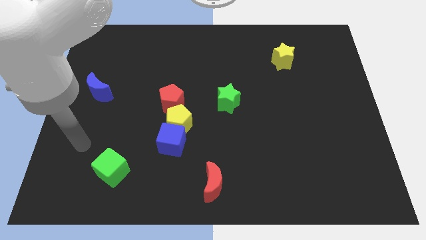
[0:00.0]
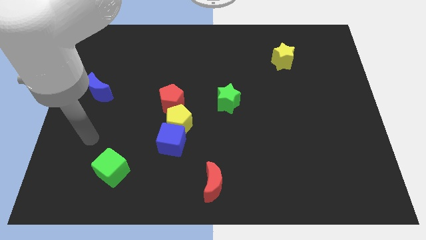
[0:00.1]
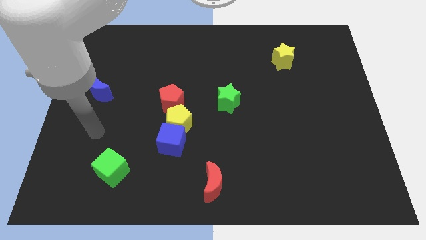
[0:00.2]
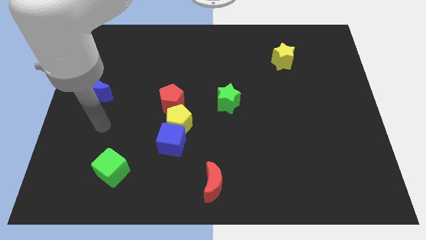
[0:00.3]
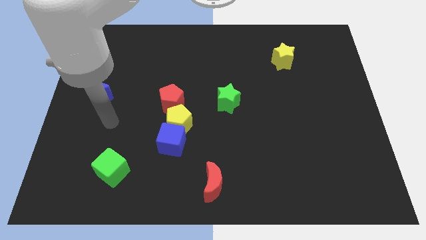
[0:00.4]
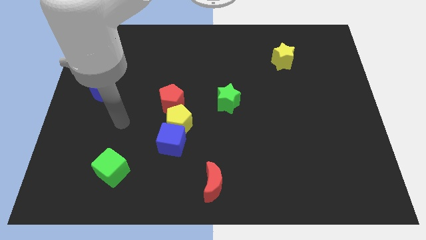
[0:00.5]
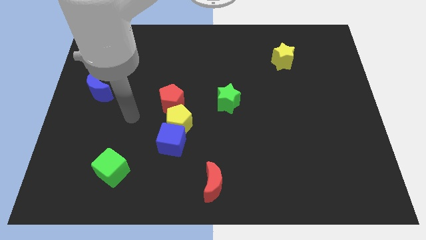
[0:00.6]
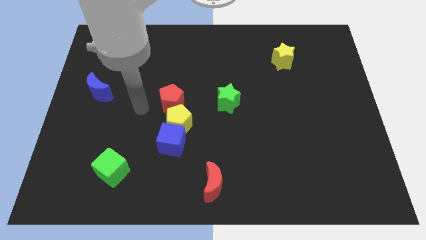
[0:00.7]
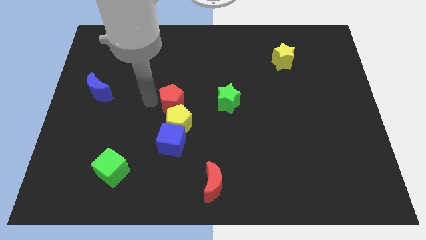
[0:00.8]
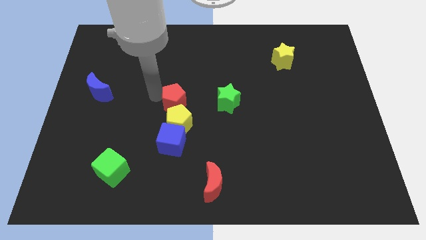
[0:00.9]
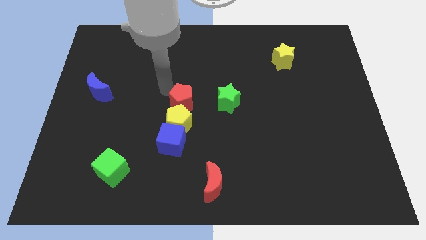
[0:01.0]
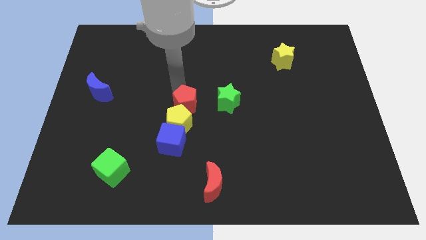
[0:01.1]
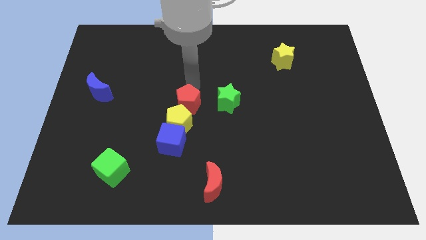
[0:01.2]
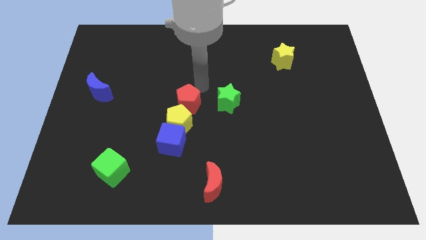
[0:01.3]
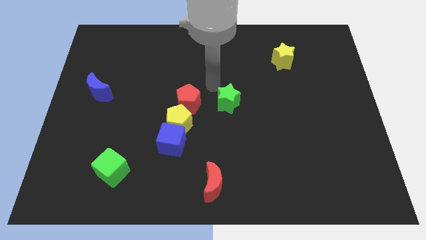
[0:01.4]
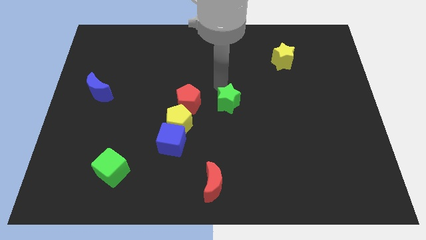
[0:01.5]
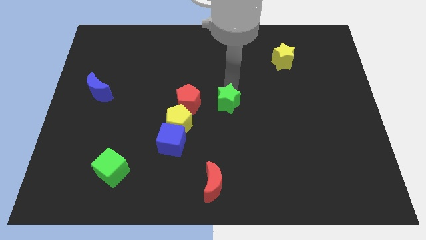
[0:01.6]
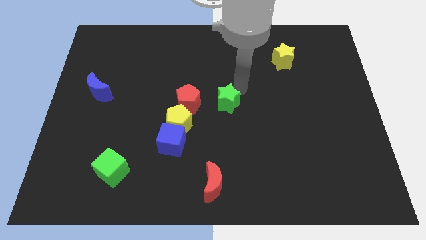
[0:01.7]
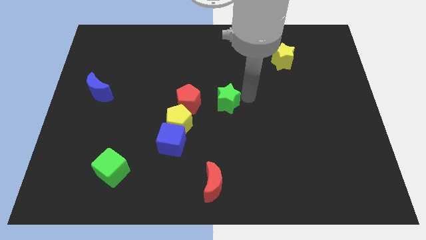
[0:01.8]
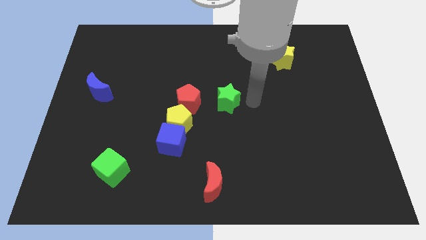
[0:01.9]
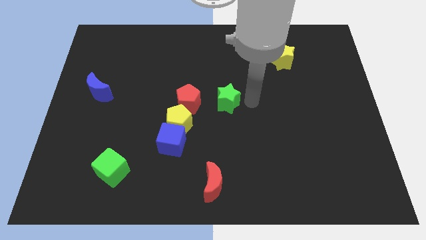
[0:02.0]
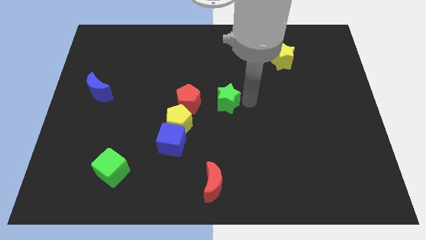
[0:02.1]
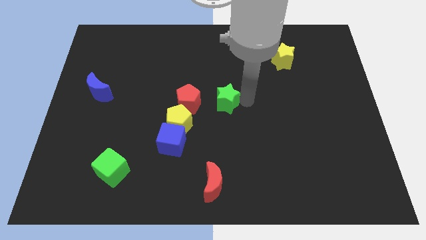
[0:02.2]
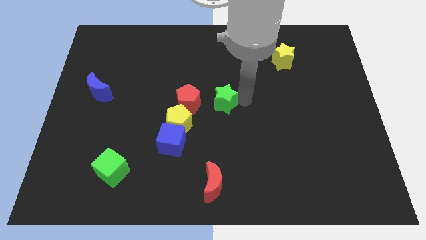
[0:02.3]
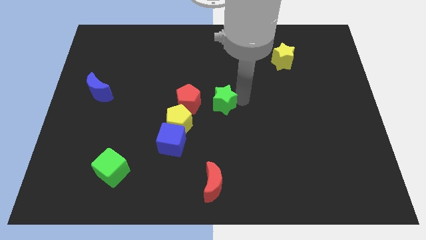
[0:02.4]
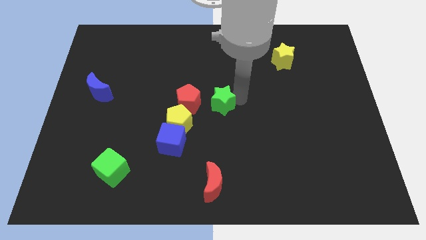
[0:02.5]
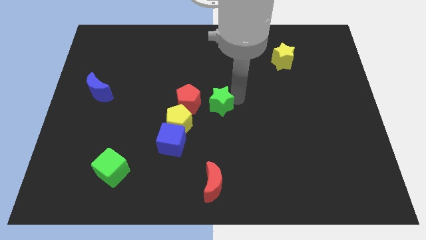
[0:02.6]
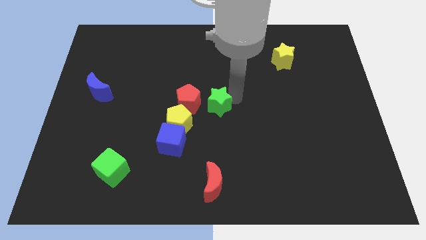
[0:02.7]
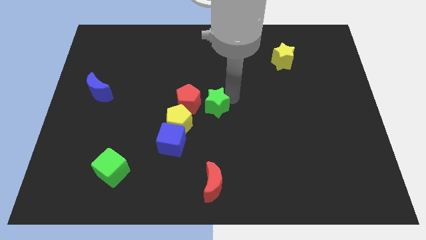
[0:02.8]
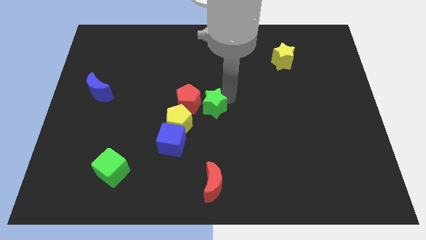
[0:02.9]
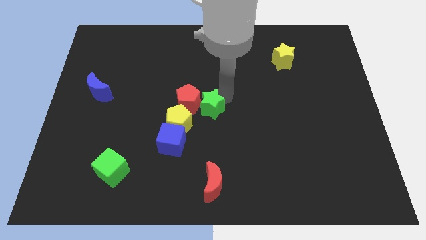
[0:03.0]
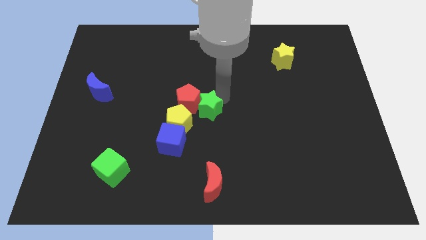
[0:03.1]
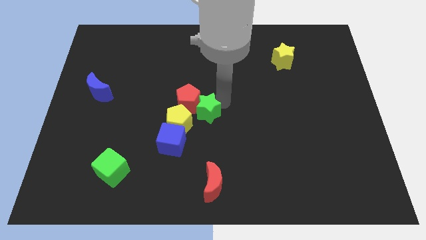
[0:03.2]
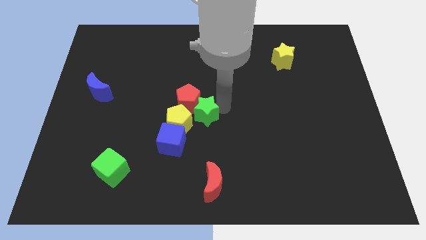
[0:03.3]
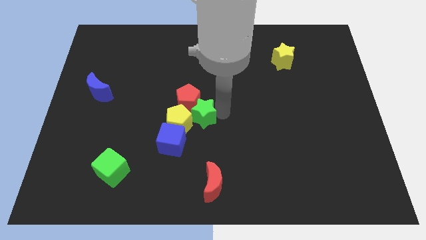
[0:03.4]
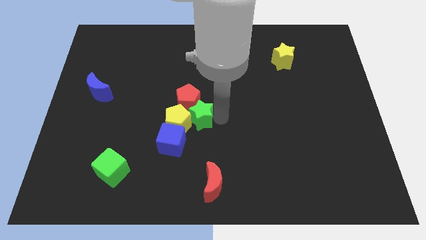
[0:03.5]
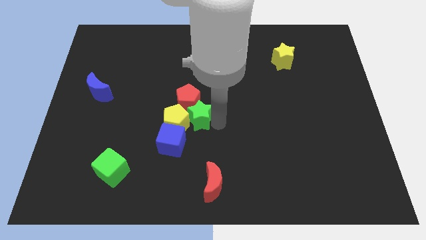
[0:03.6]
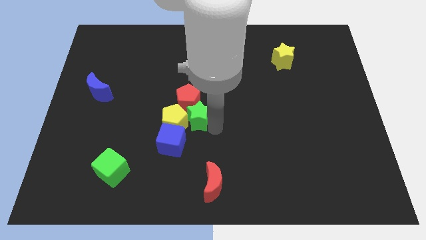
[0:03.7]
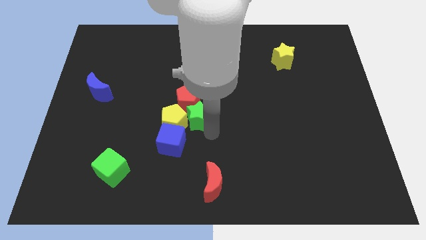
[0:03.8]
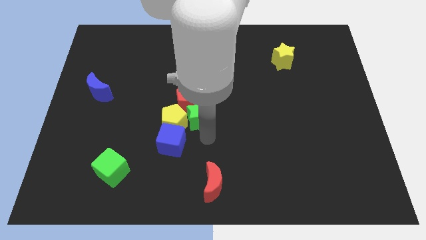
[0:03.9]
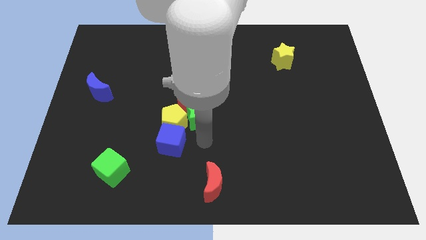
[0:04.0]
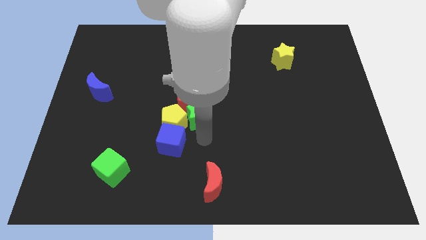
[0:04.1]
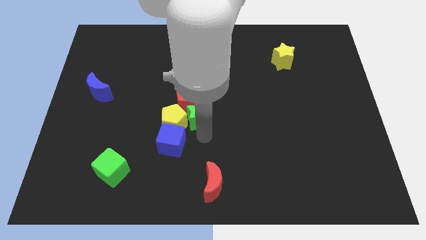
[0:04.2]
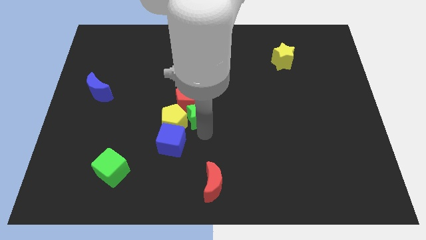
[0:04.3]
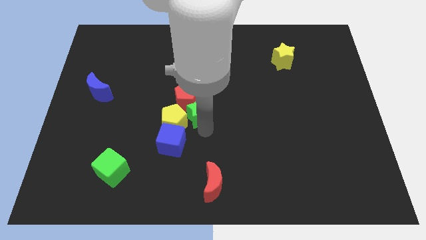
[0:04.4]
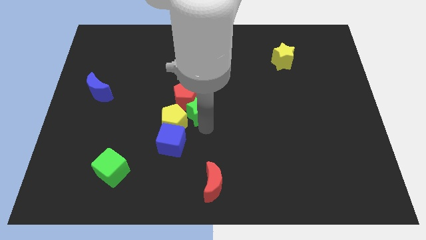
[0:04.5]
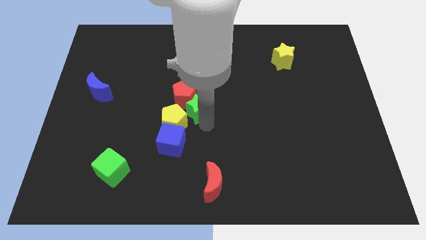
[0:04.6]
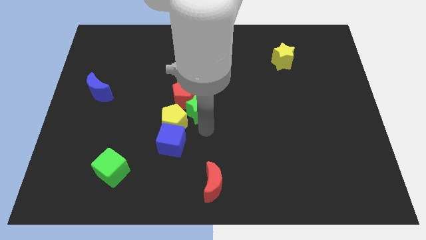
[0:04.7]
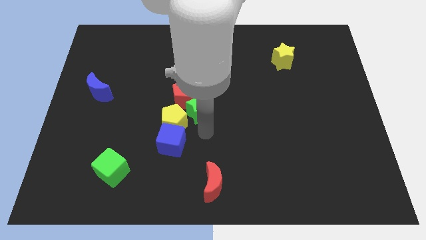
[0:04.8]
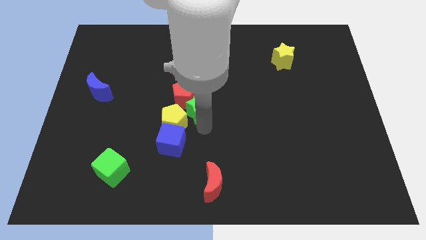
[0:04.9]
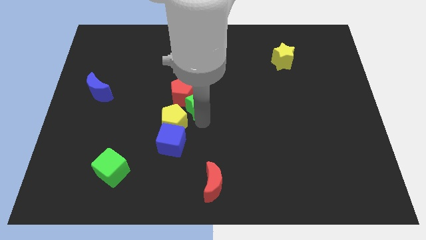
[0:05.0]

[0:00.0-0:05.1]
slightly move the green star left

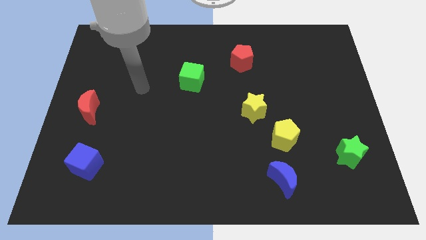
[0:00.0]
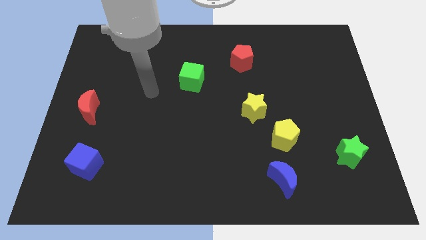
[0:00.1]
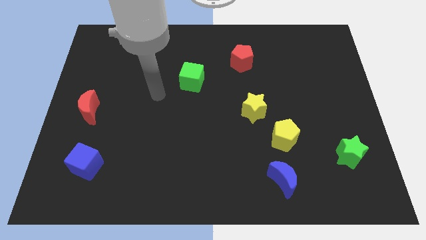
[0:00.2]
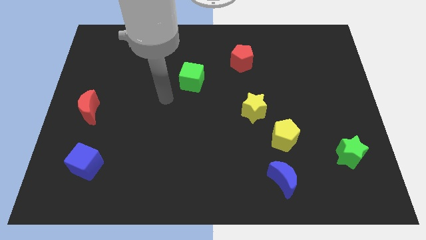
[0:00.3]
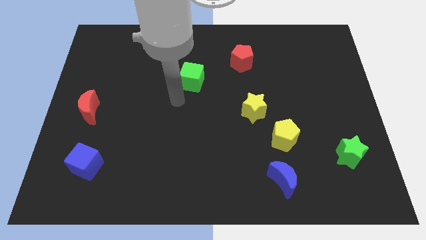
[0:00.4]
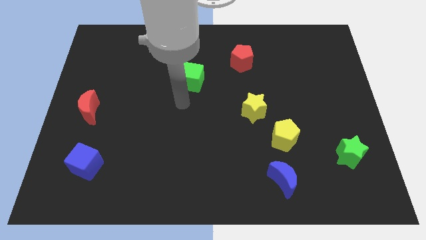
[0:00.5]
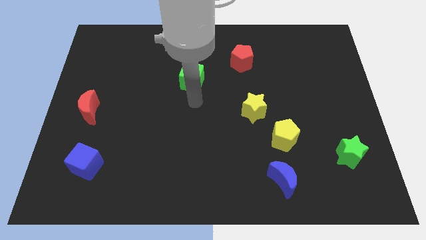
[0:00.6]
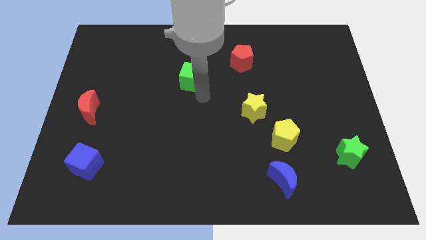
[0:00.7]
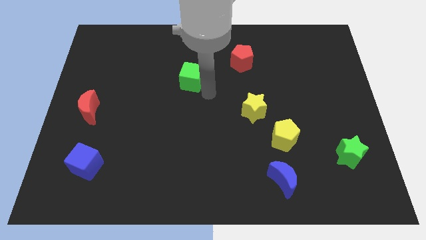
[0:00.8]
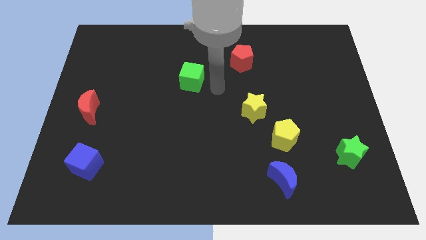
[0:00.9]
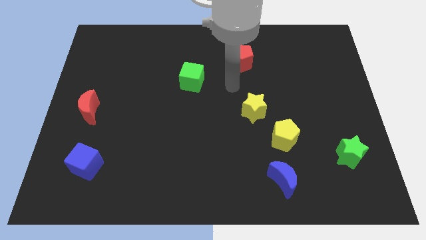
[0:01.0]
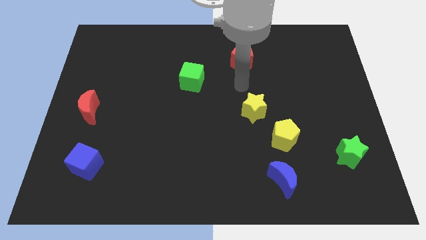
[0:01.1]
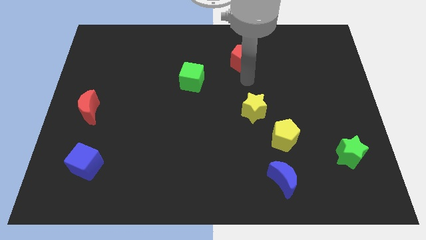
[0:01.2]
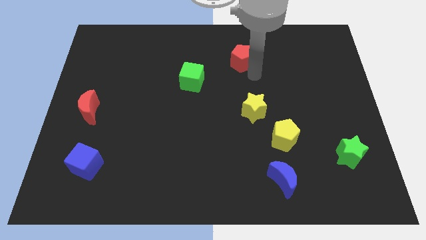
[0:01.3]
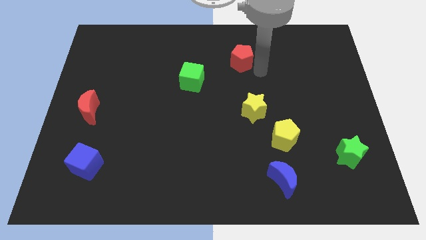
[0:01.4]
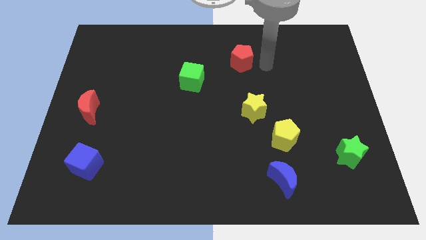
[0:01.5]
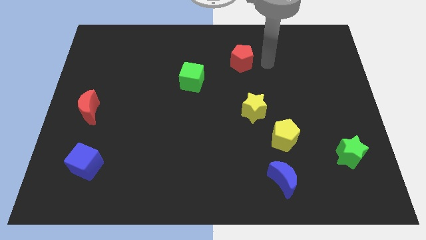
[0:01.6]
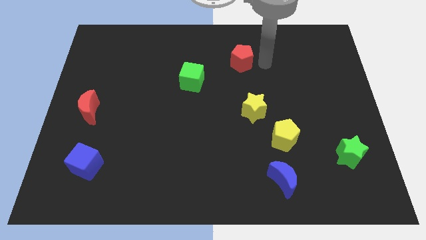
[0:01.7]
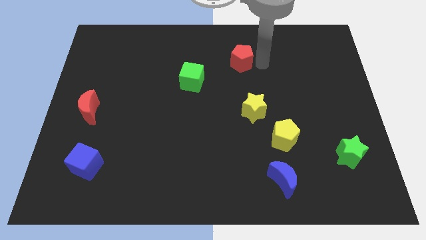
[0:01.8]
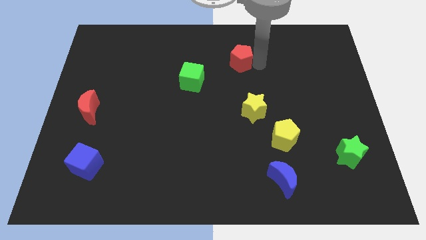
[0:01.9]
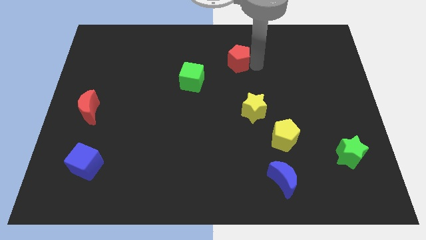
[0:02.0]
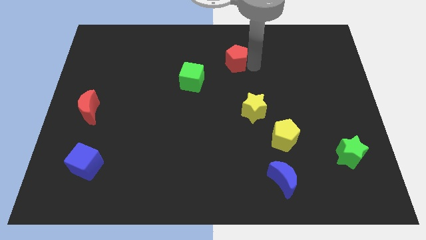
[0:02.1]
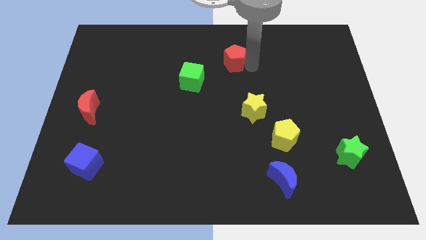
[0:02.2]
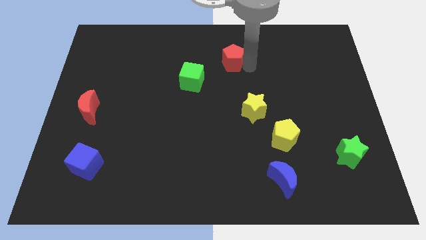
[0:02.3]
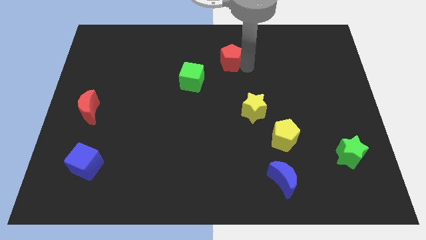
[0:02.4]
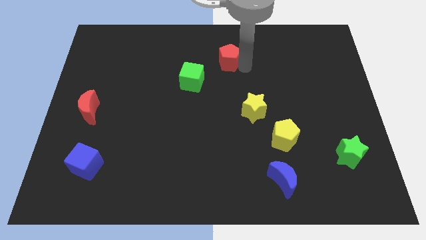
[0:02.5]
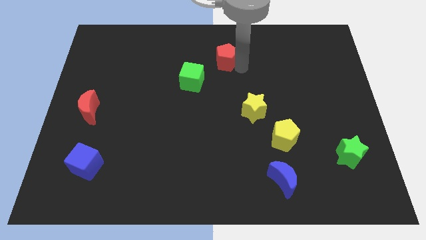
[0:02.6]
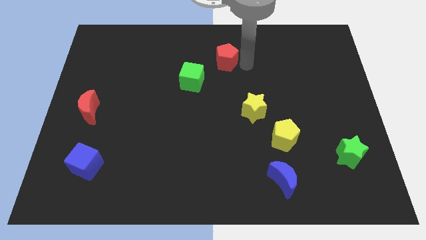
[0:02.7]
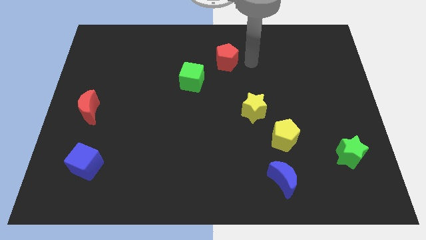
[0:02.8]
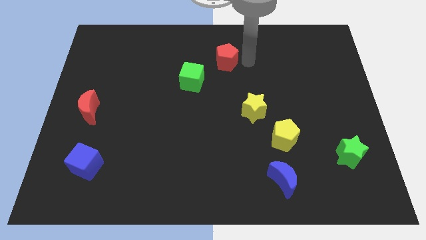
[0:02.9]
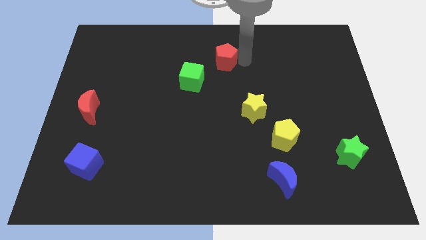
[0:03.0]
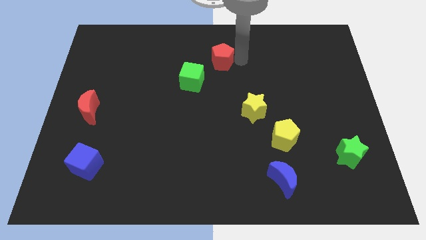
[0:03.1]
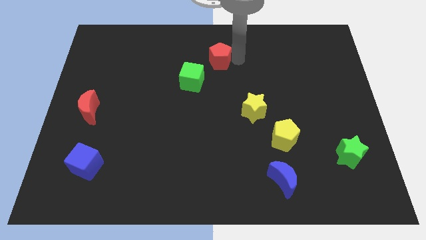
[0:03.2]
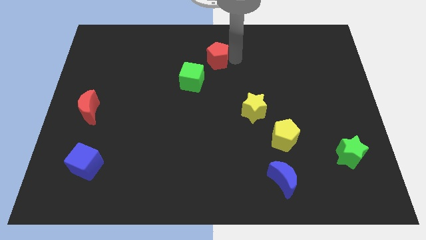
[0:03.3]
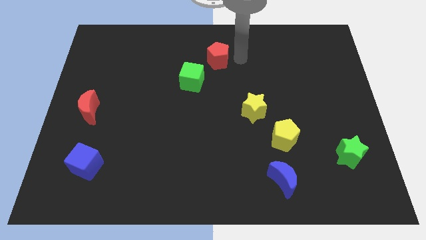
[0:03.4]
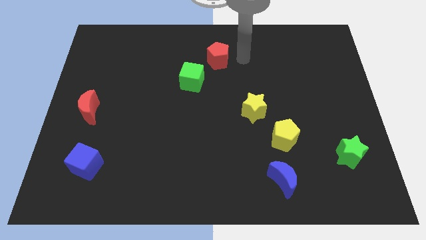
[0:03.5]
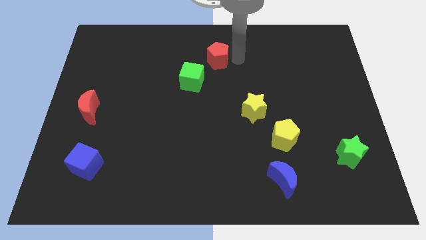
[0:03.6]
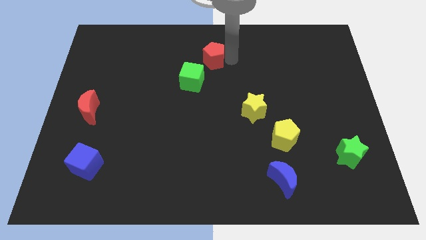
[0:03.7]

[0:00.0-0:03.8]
move the red pentagon to the left slightly
